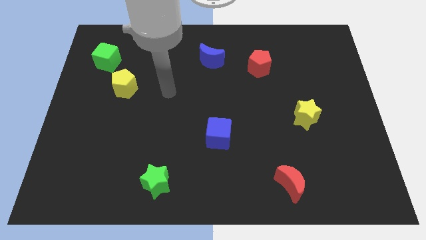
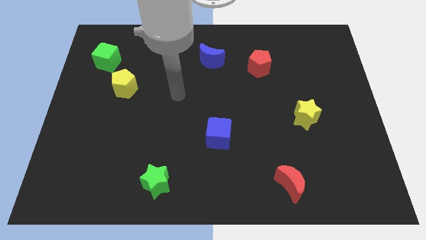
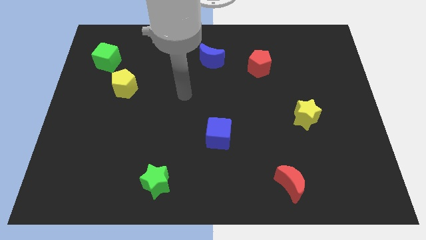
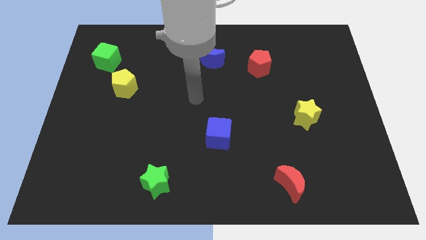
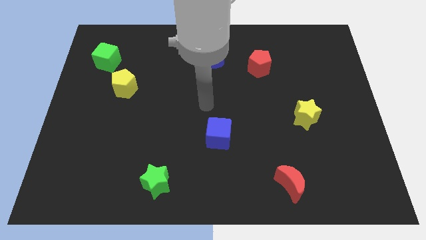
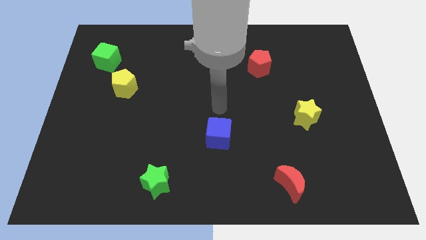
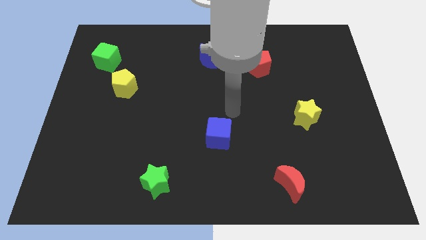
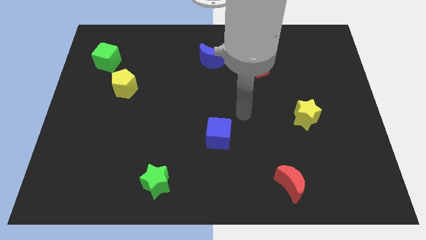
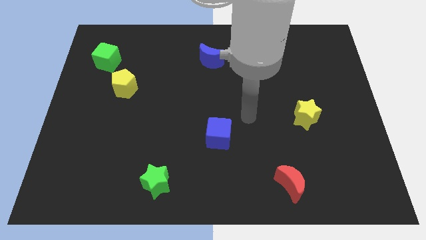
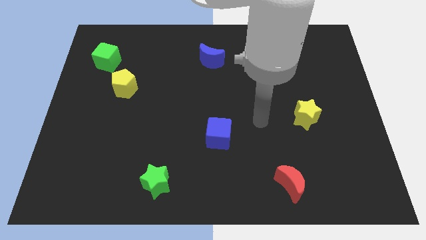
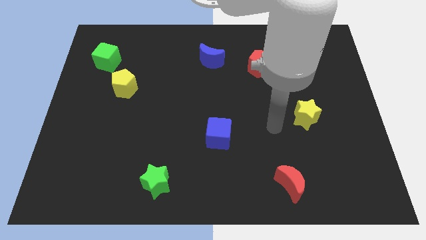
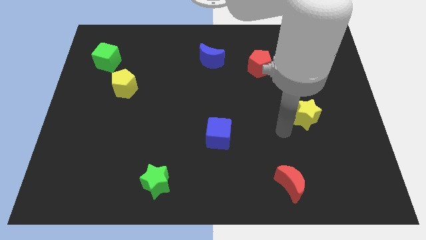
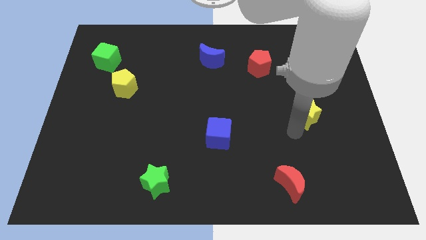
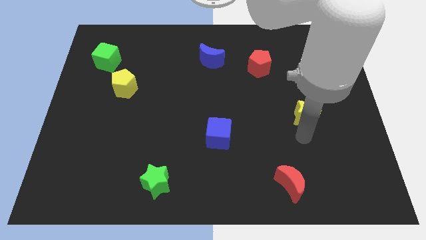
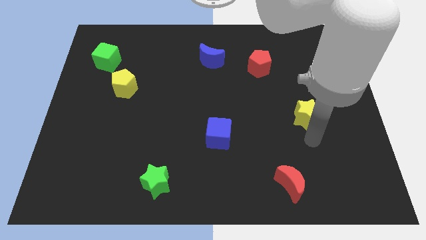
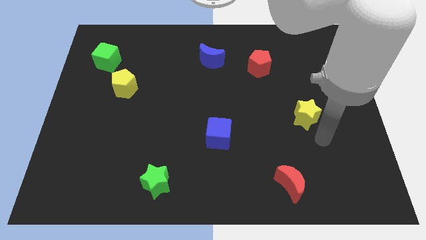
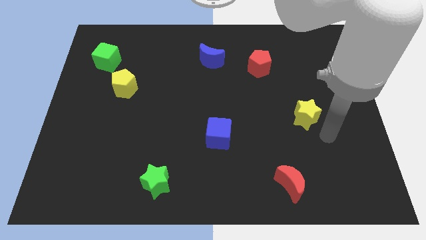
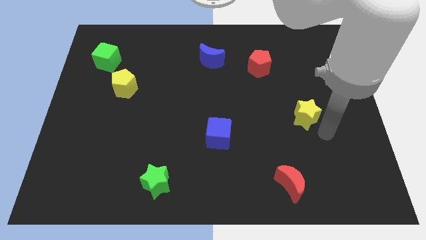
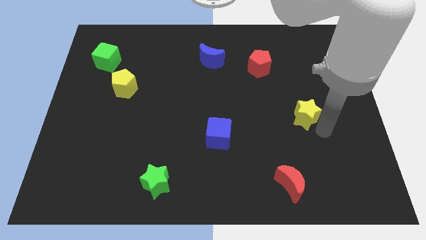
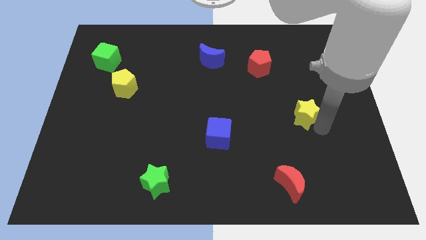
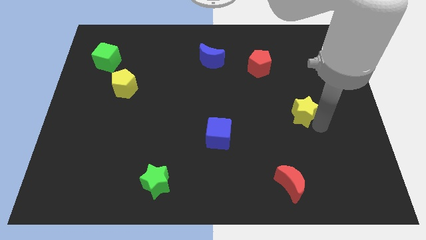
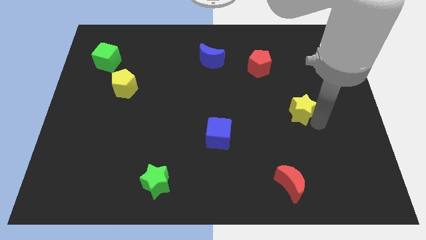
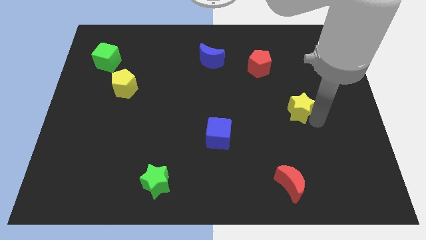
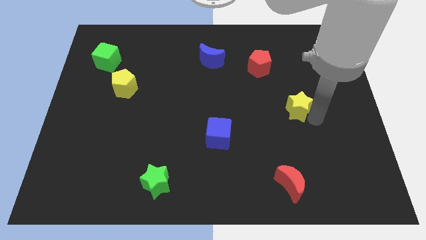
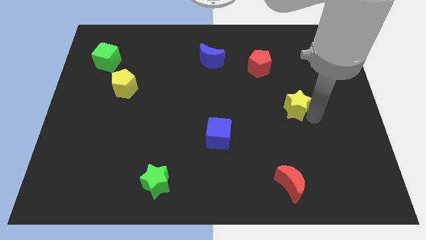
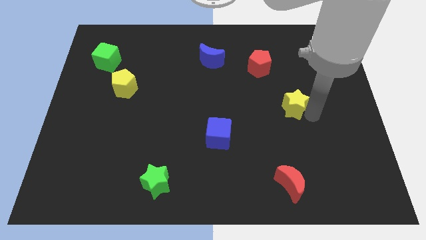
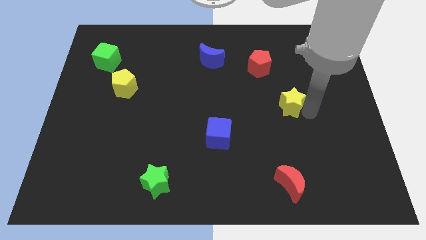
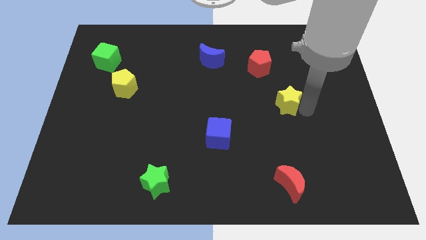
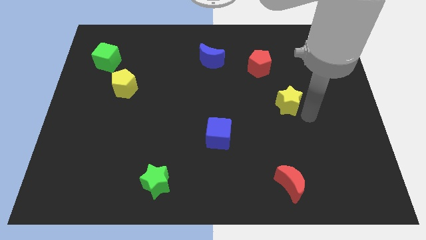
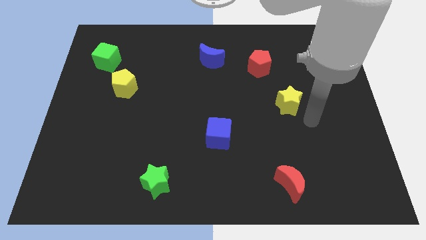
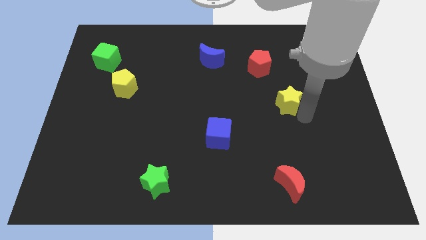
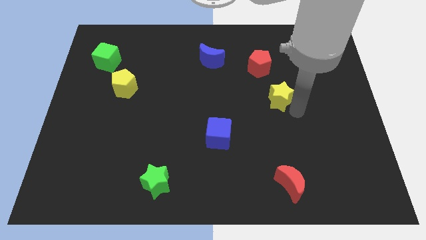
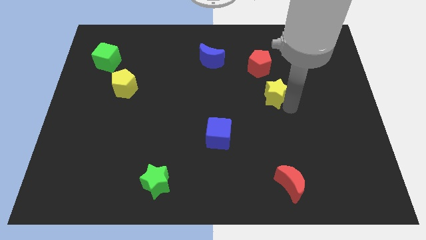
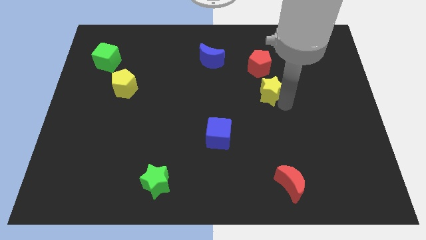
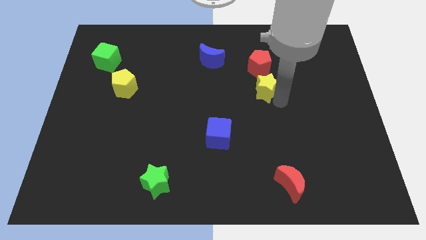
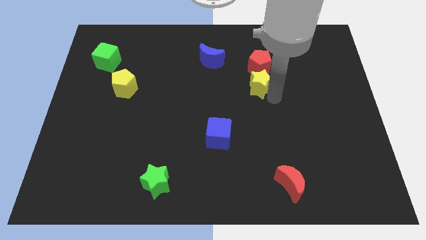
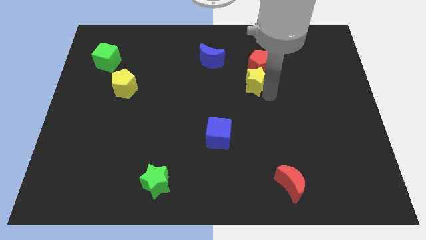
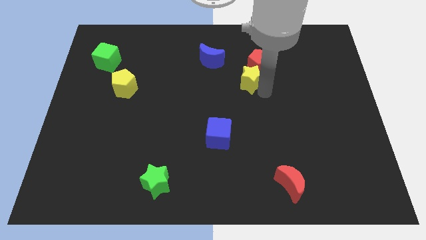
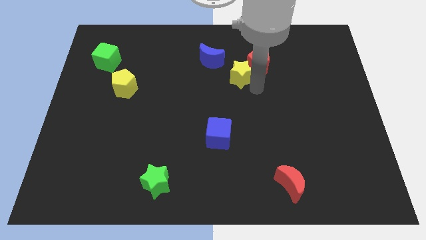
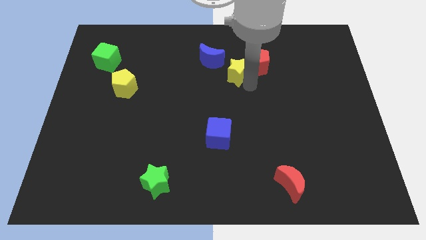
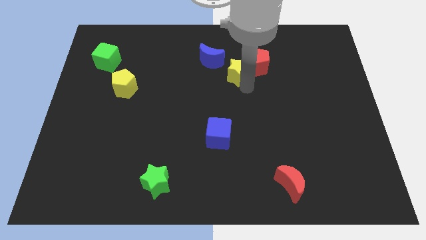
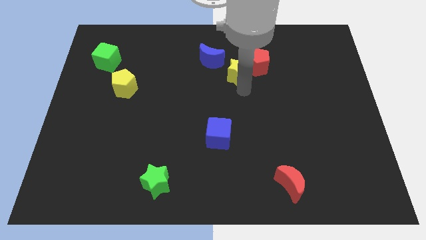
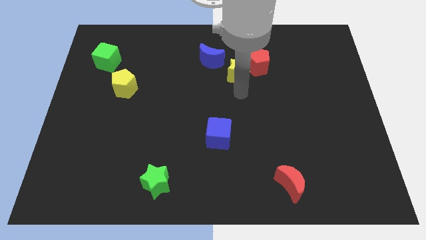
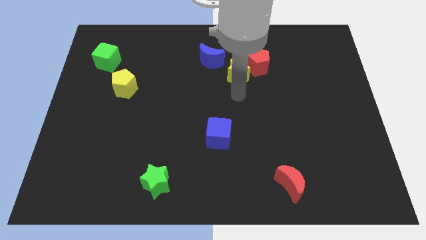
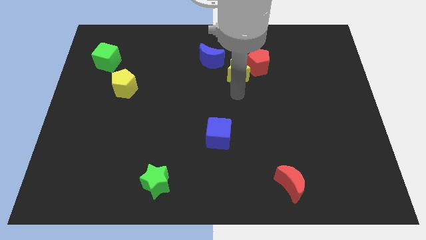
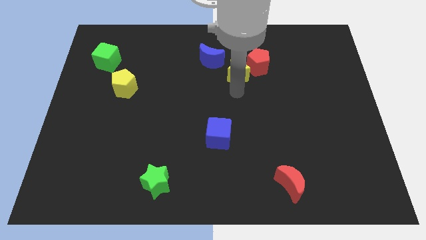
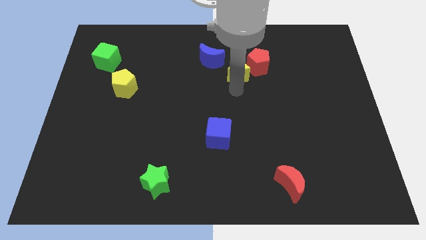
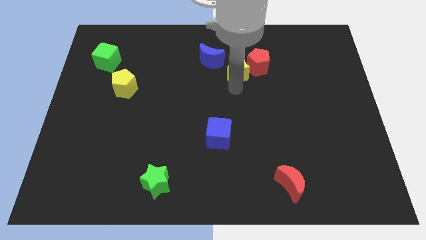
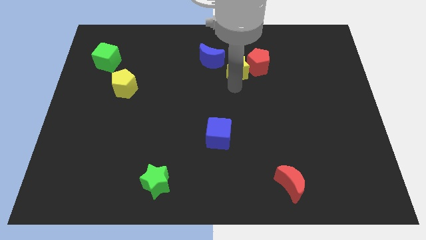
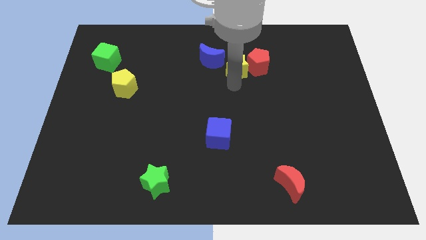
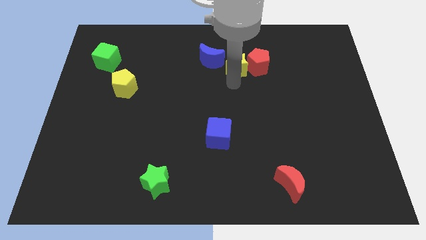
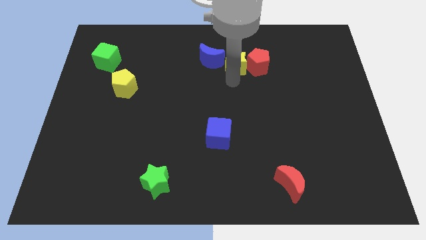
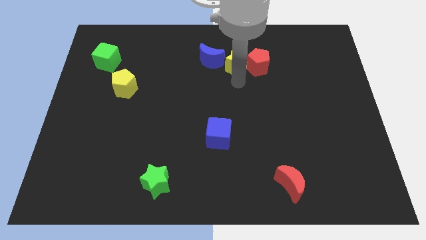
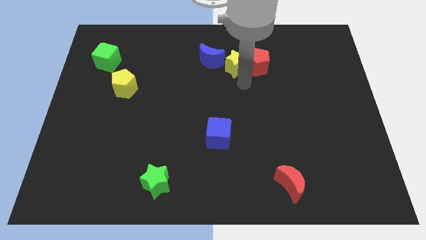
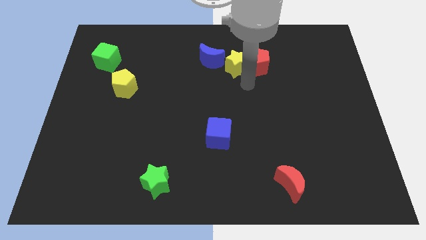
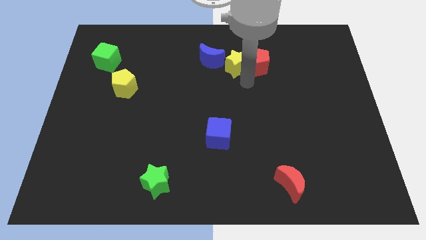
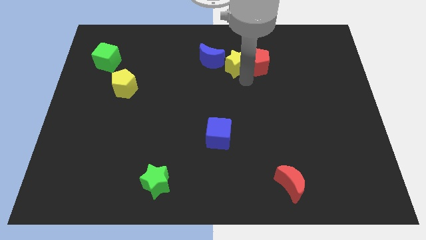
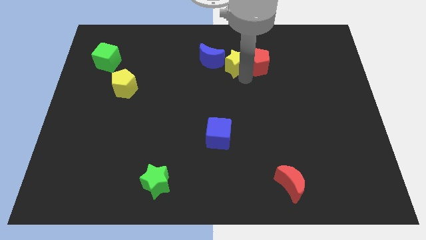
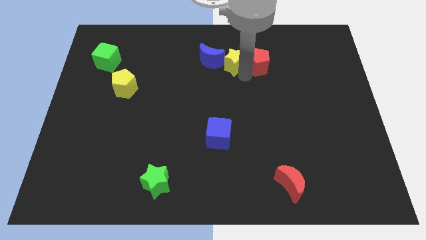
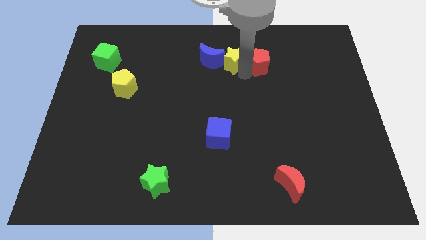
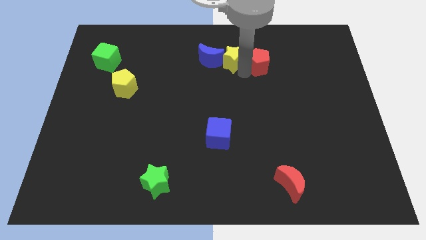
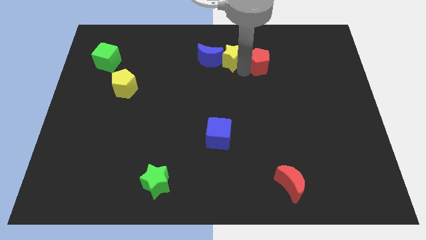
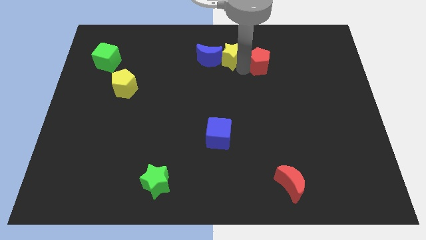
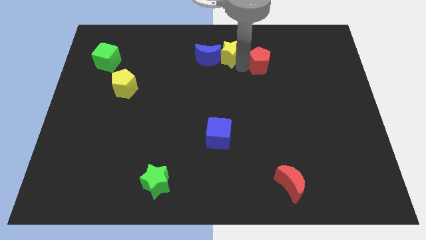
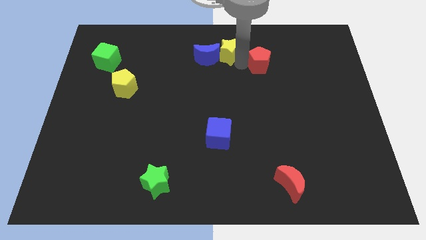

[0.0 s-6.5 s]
move the yellow star to the towards your base

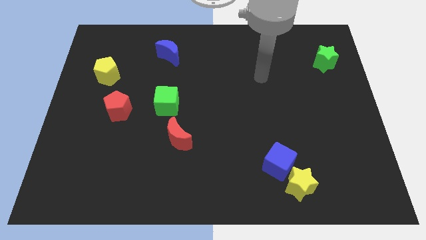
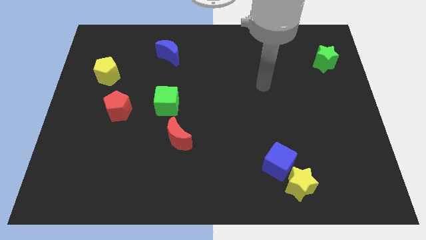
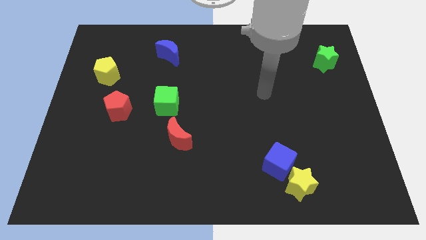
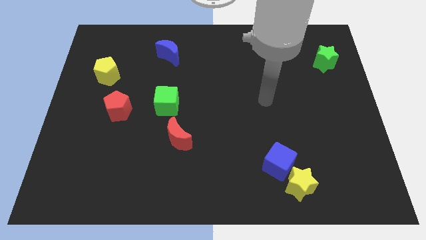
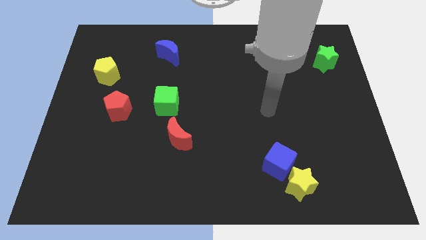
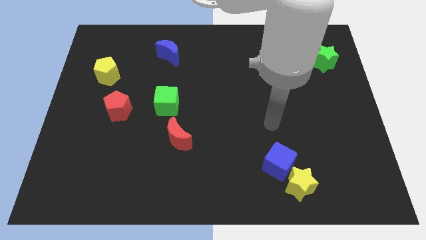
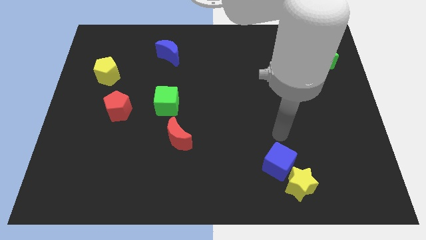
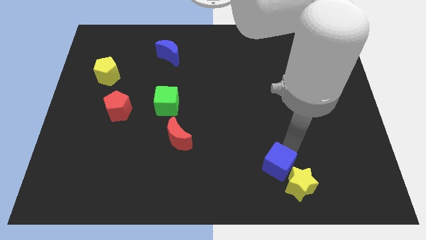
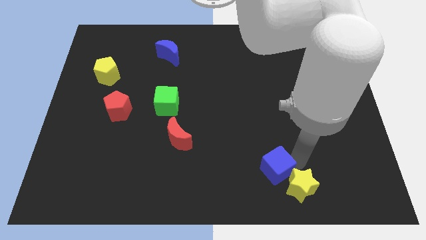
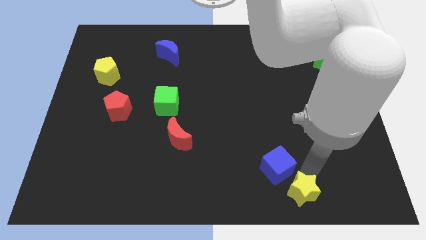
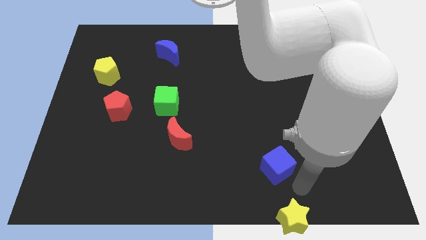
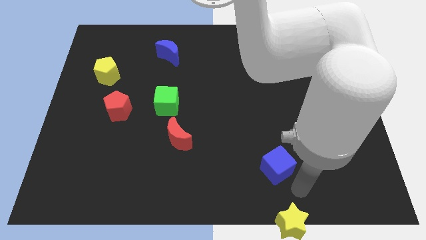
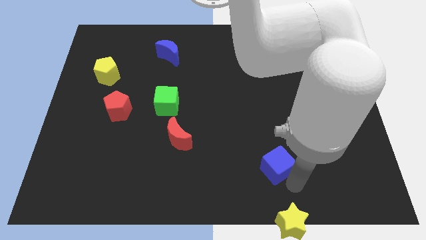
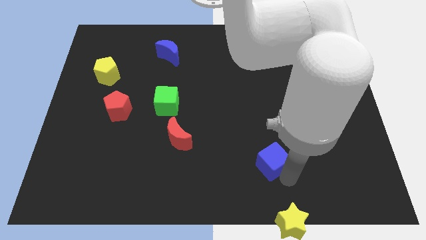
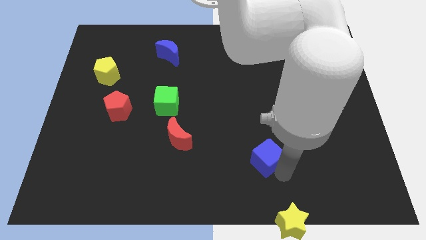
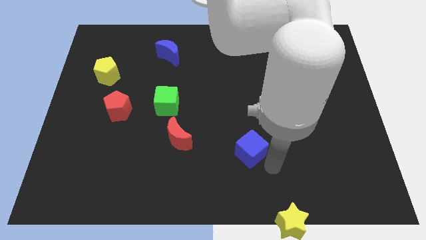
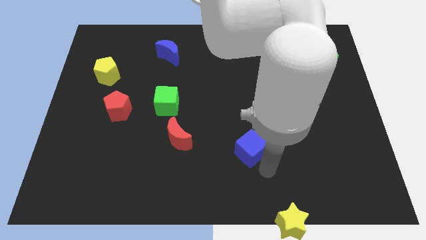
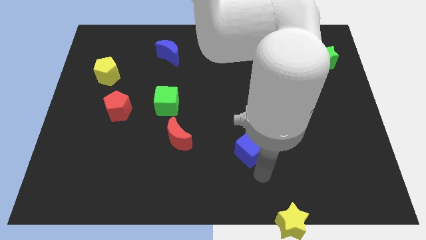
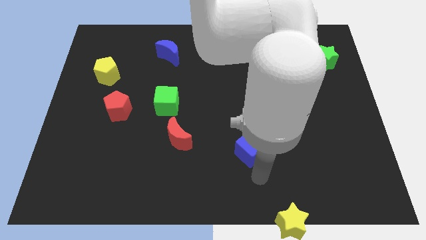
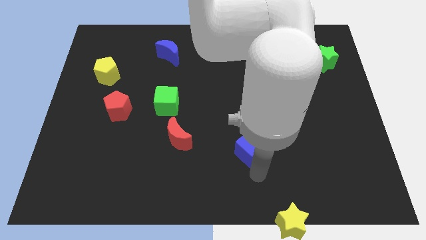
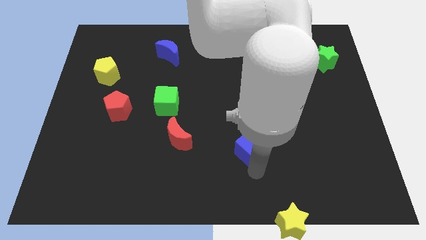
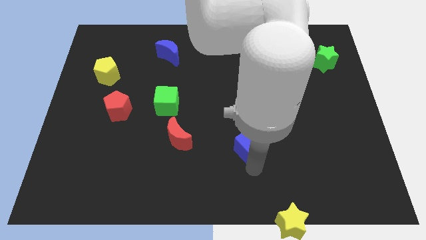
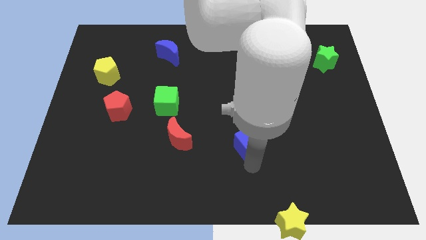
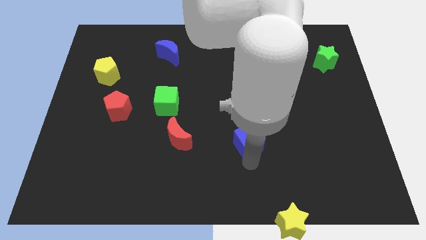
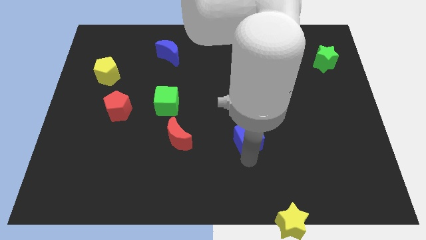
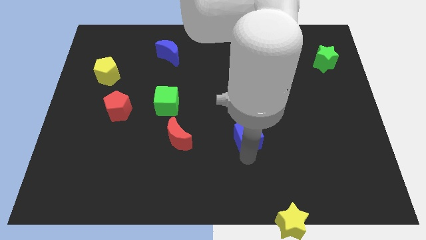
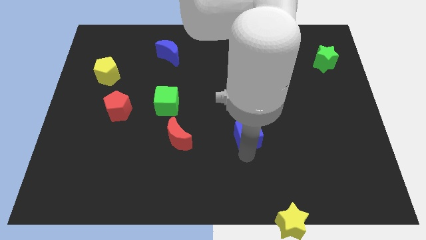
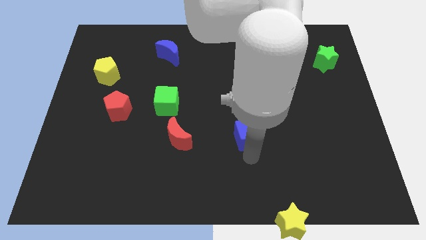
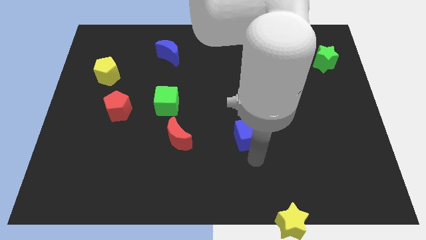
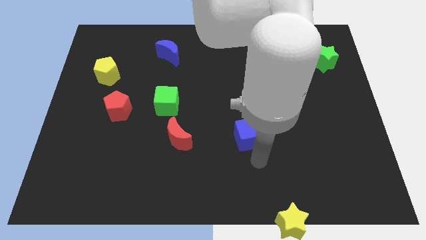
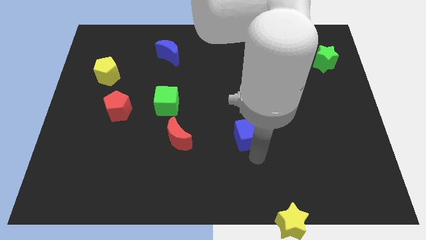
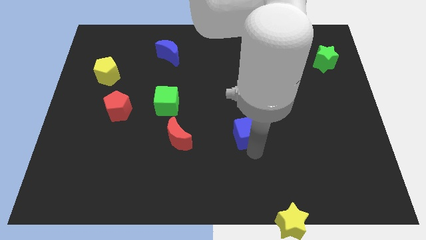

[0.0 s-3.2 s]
push the blue cube to the middle
